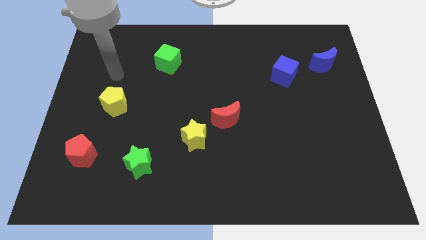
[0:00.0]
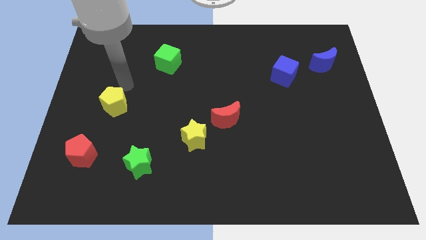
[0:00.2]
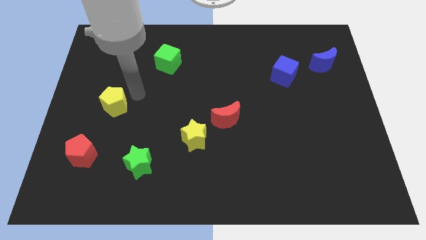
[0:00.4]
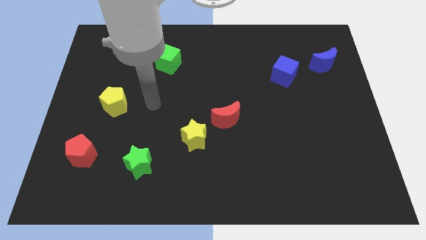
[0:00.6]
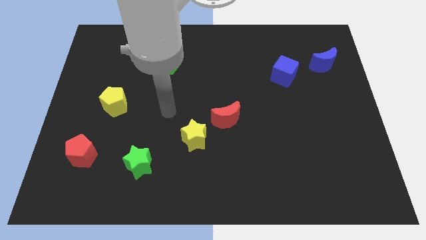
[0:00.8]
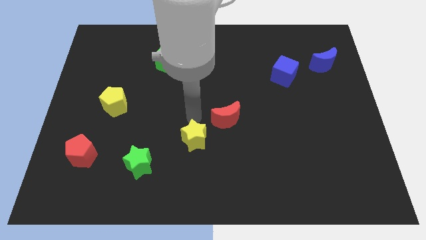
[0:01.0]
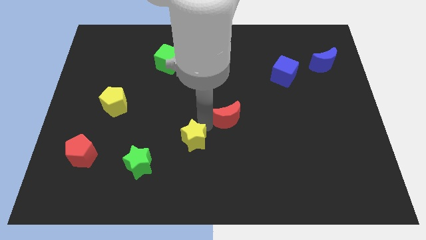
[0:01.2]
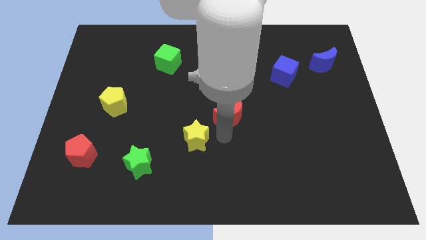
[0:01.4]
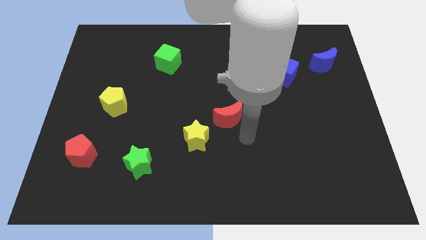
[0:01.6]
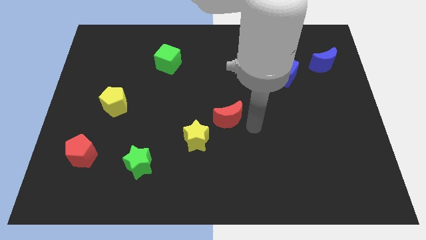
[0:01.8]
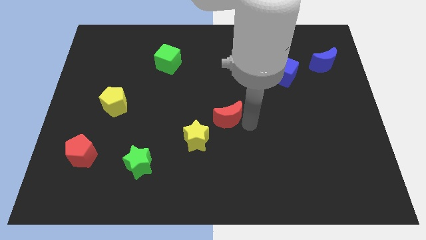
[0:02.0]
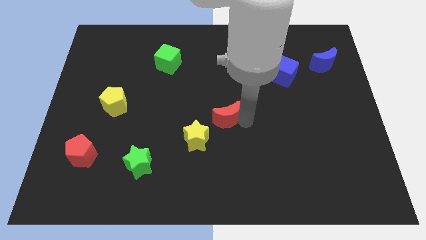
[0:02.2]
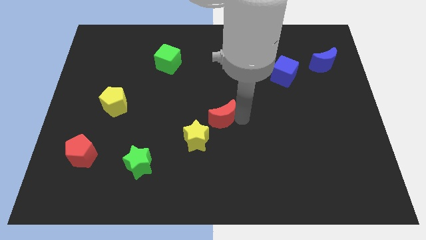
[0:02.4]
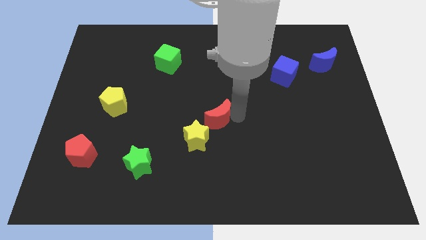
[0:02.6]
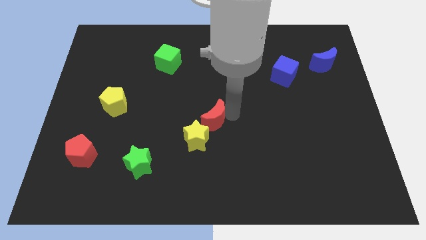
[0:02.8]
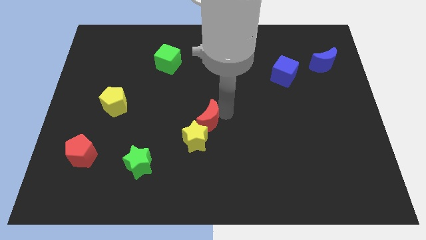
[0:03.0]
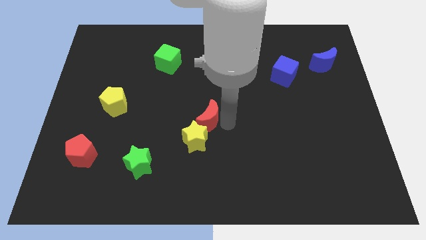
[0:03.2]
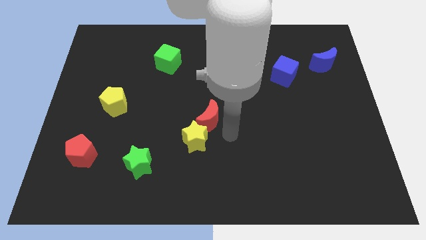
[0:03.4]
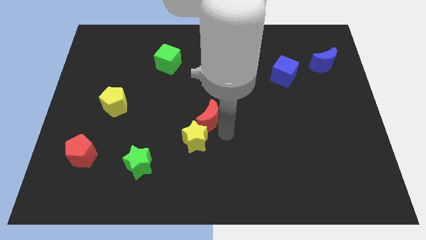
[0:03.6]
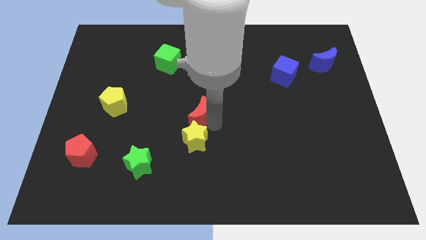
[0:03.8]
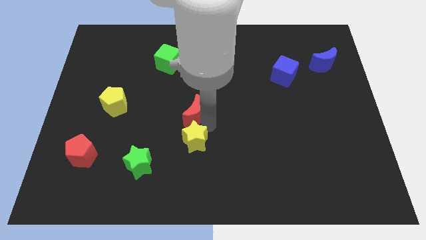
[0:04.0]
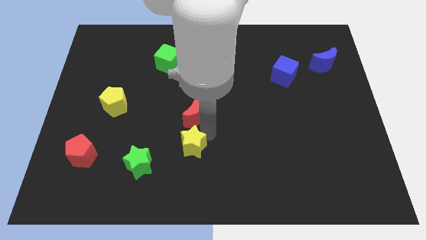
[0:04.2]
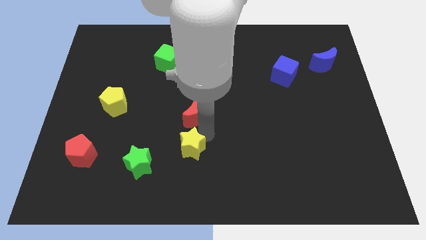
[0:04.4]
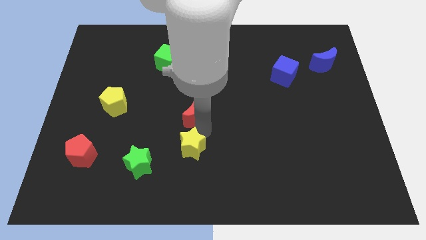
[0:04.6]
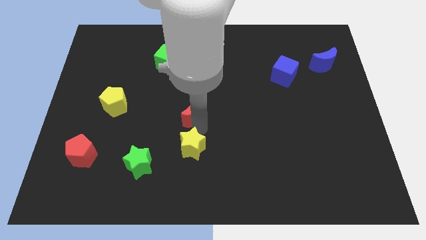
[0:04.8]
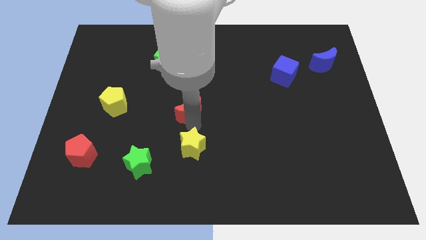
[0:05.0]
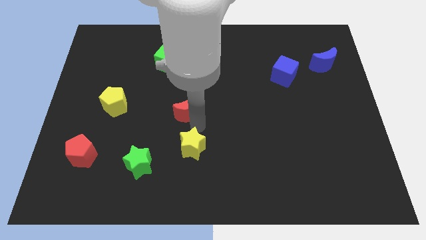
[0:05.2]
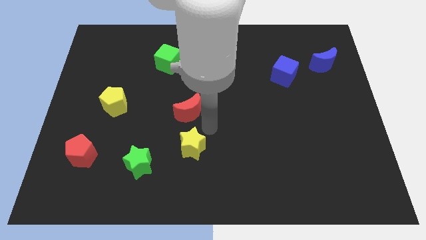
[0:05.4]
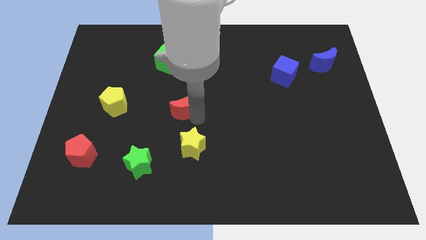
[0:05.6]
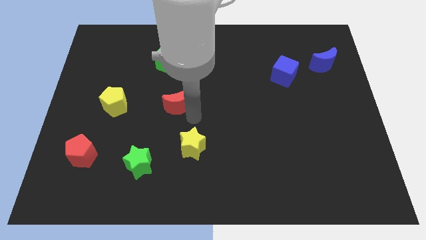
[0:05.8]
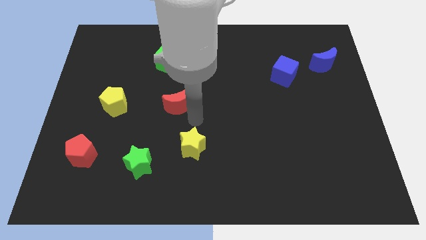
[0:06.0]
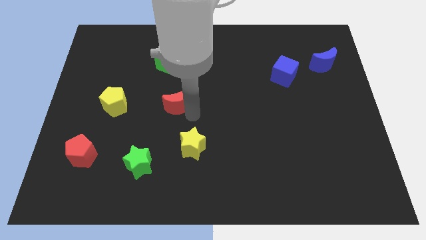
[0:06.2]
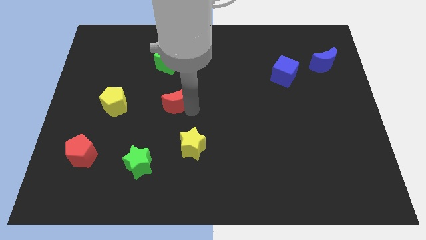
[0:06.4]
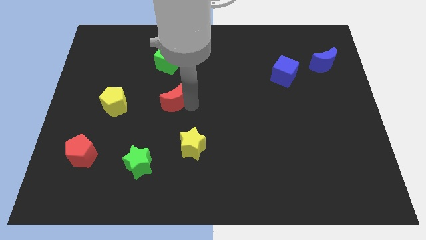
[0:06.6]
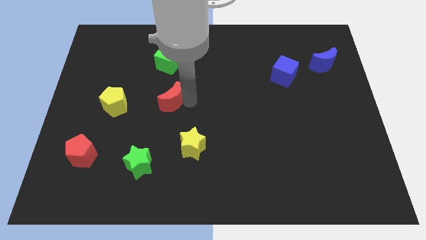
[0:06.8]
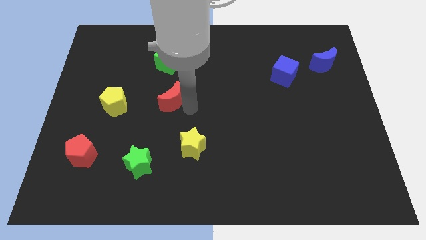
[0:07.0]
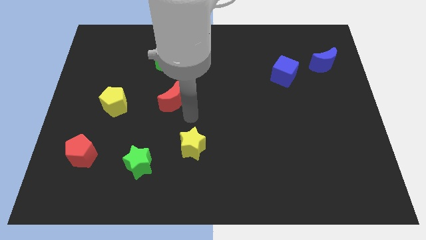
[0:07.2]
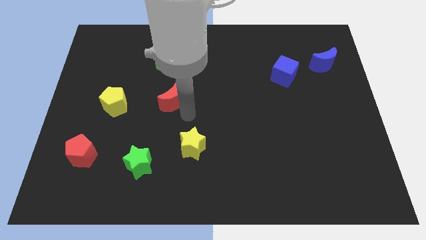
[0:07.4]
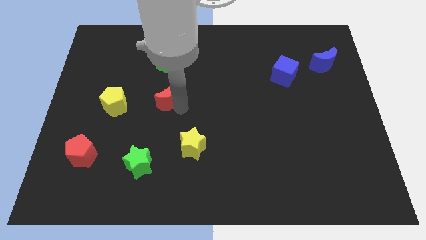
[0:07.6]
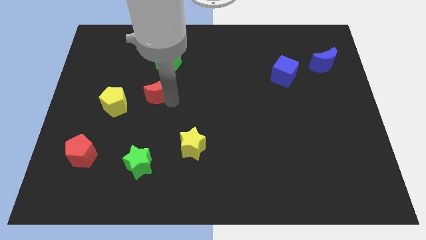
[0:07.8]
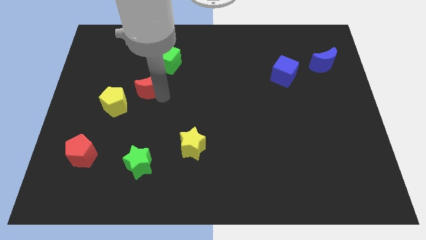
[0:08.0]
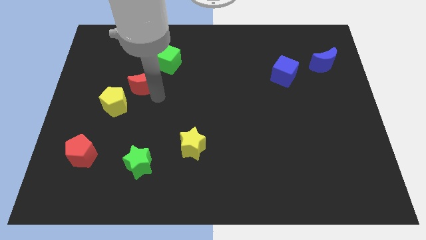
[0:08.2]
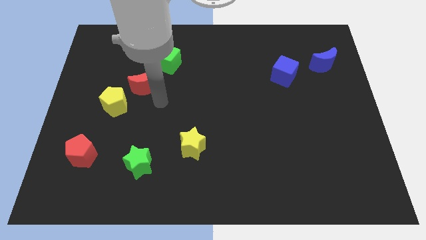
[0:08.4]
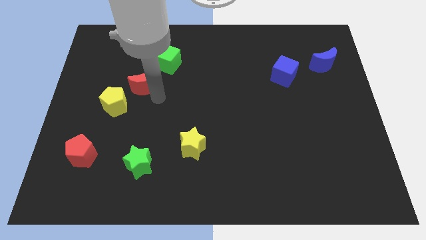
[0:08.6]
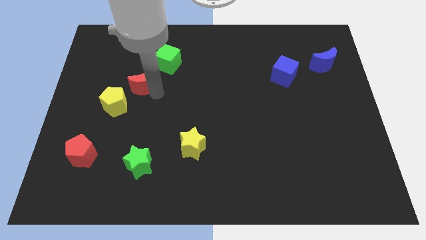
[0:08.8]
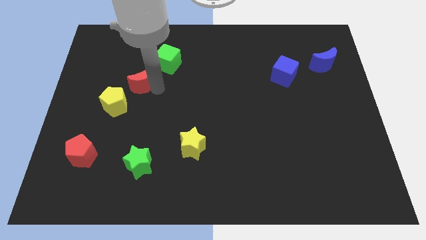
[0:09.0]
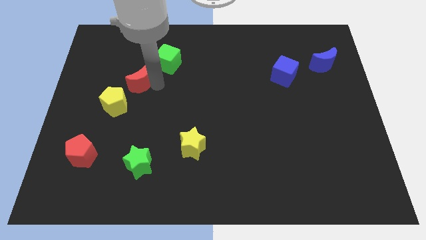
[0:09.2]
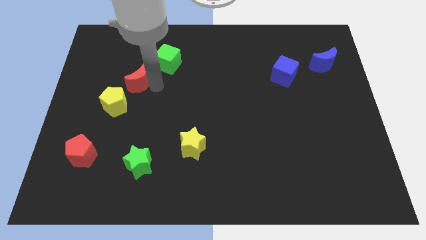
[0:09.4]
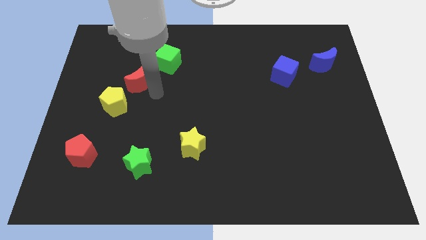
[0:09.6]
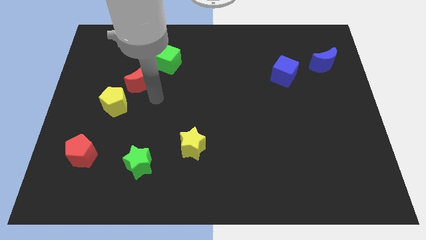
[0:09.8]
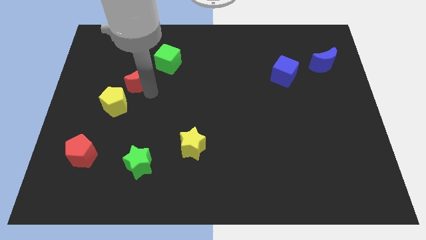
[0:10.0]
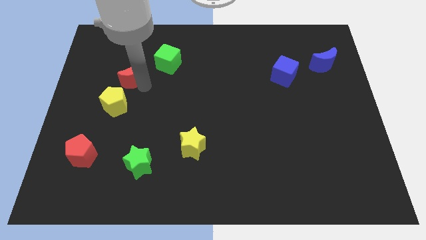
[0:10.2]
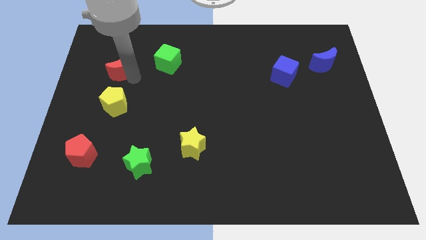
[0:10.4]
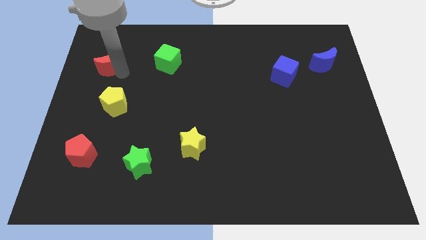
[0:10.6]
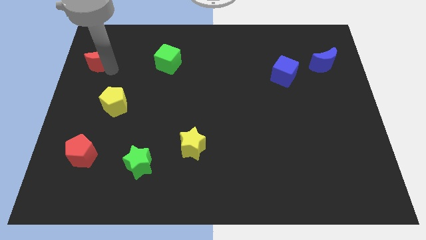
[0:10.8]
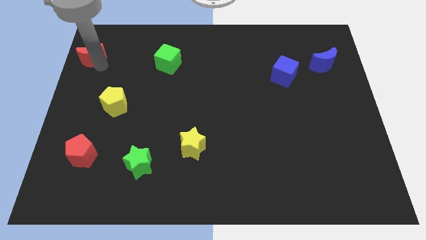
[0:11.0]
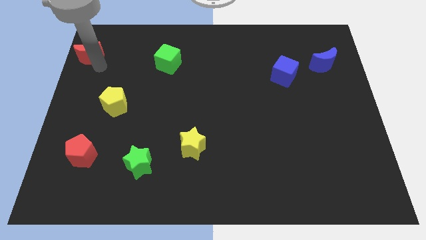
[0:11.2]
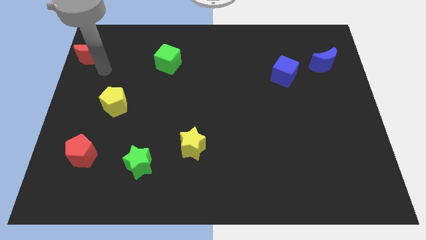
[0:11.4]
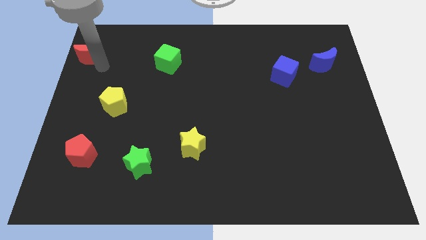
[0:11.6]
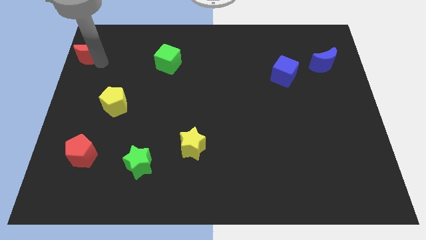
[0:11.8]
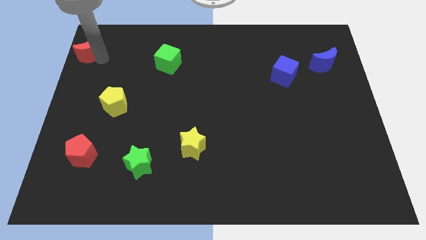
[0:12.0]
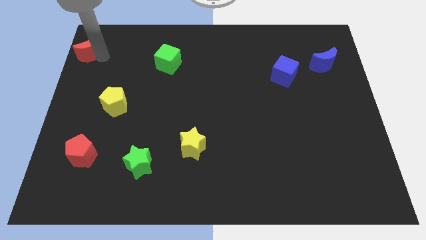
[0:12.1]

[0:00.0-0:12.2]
put the red moon to the top left of the board

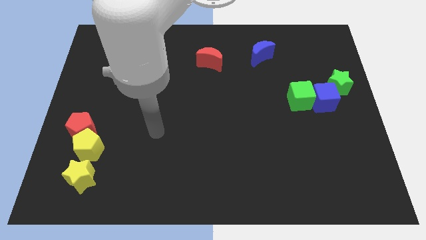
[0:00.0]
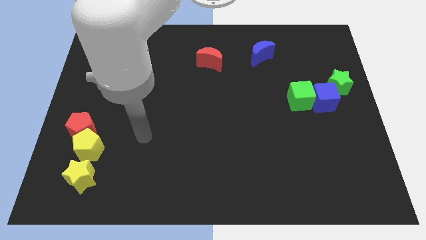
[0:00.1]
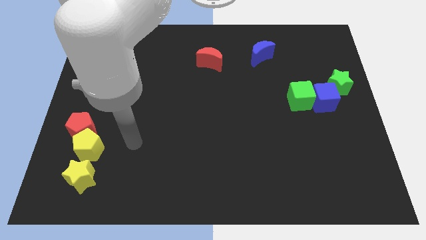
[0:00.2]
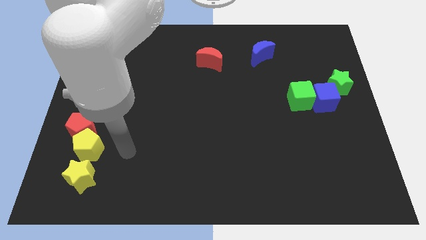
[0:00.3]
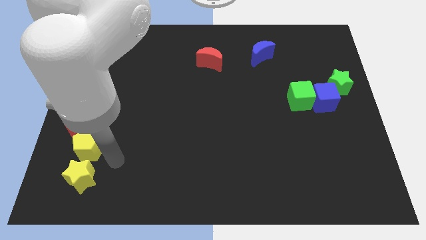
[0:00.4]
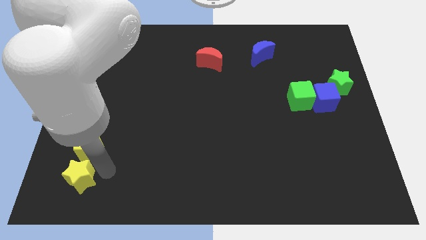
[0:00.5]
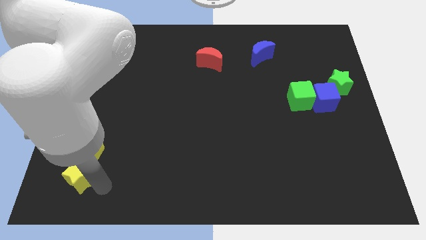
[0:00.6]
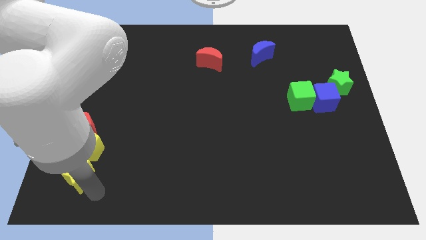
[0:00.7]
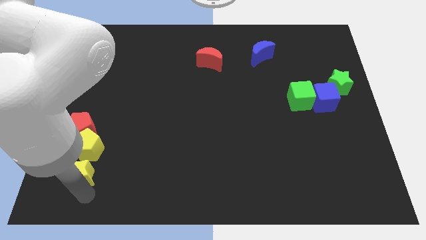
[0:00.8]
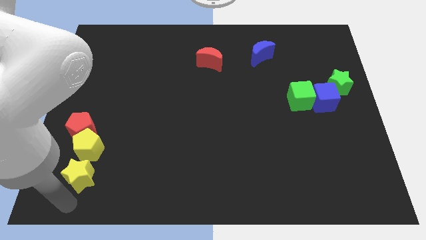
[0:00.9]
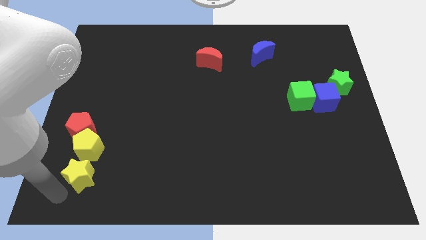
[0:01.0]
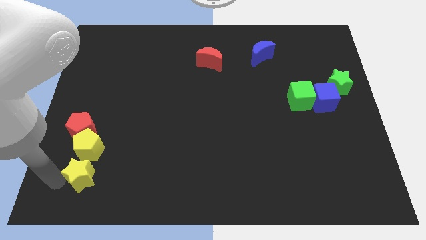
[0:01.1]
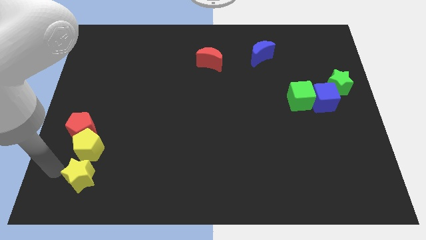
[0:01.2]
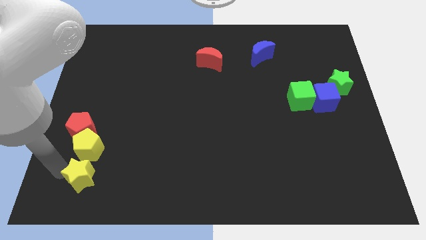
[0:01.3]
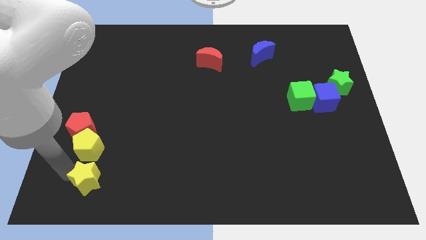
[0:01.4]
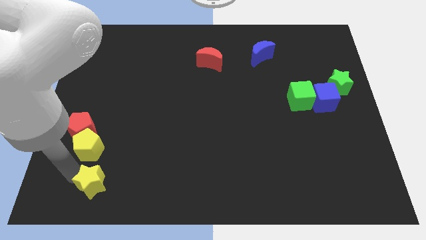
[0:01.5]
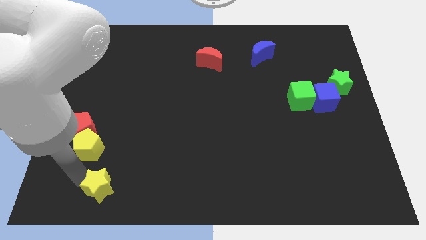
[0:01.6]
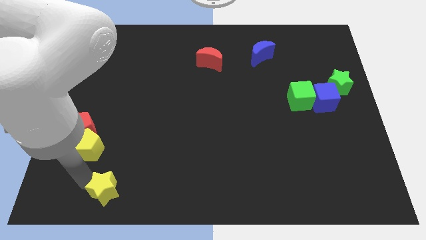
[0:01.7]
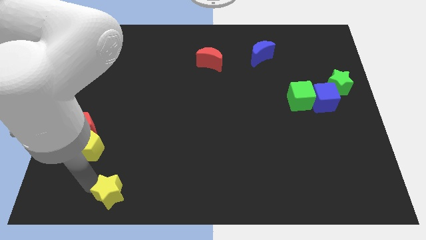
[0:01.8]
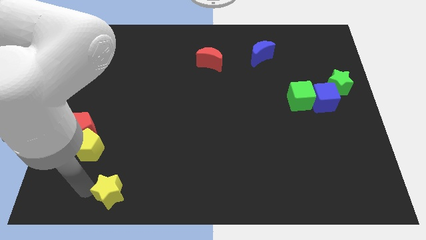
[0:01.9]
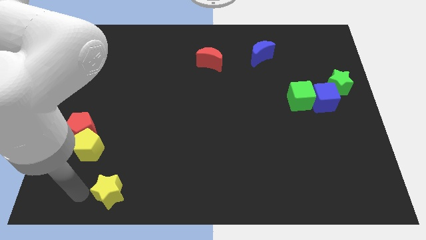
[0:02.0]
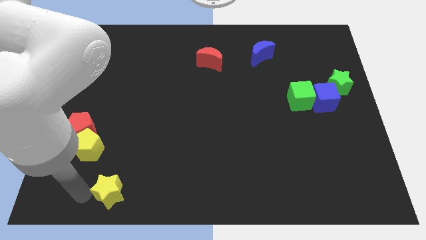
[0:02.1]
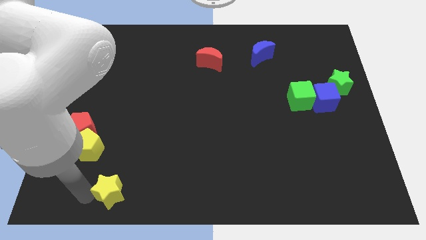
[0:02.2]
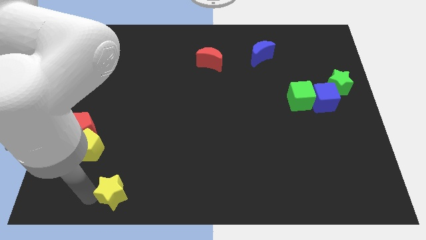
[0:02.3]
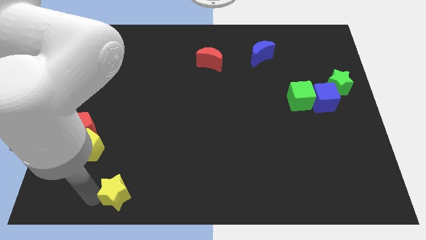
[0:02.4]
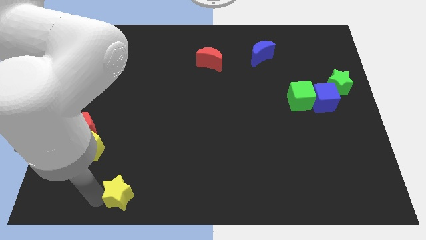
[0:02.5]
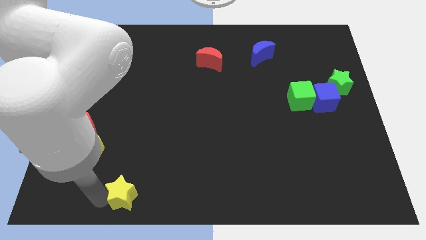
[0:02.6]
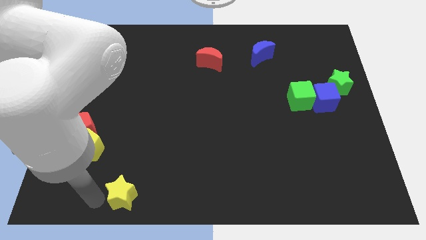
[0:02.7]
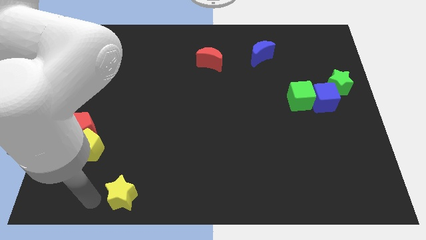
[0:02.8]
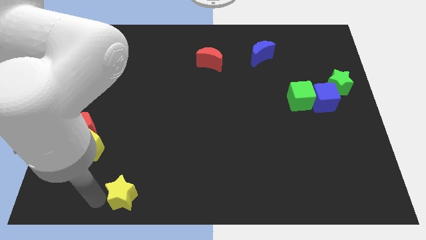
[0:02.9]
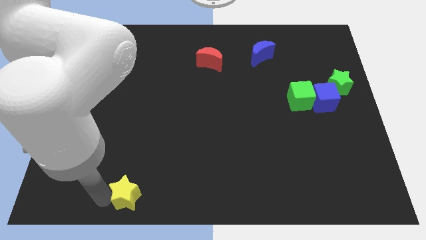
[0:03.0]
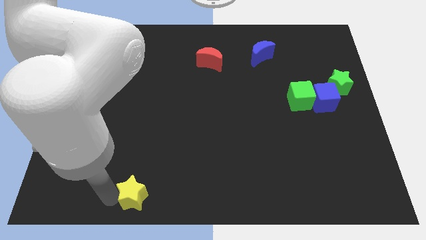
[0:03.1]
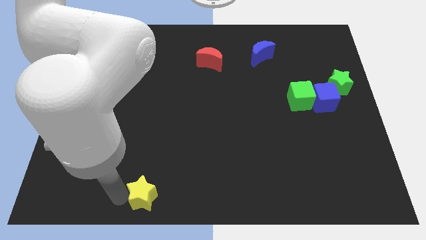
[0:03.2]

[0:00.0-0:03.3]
slide the yellow star to the bottom
